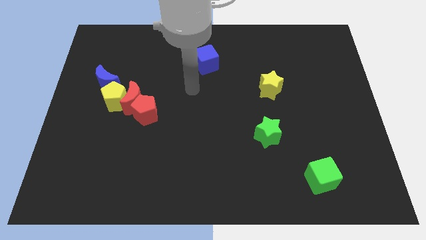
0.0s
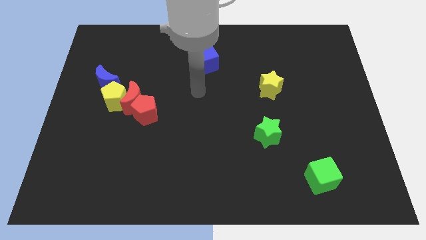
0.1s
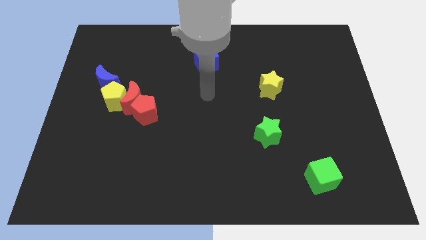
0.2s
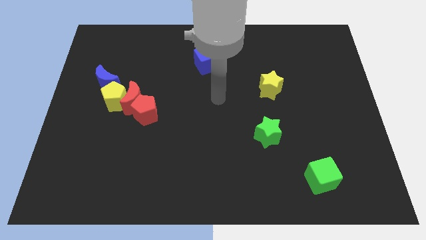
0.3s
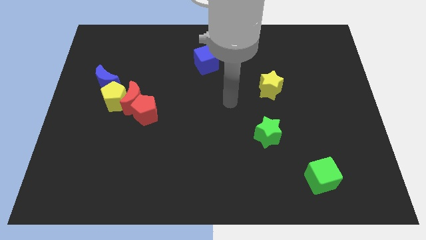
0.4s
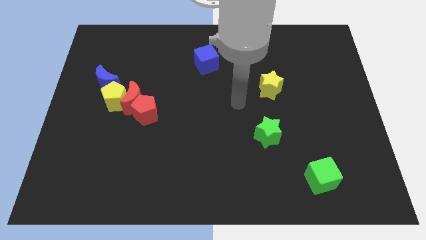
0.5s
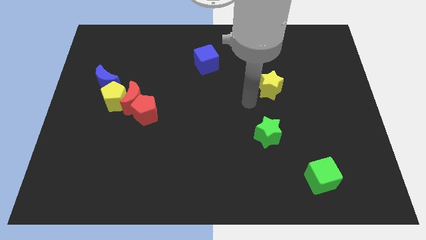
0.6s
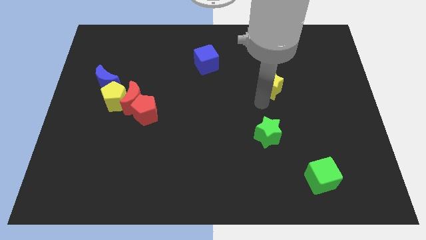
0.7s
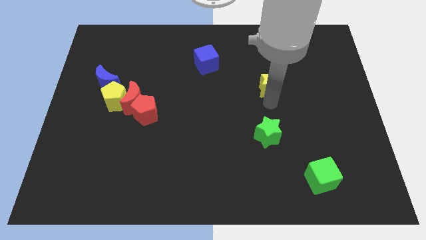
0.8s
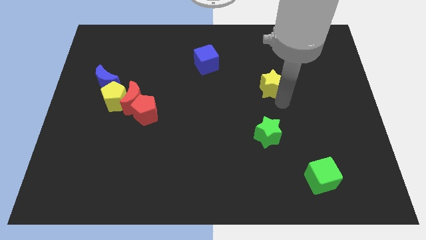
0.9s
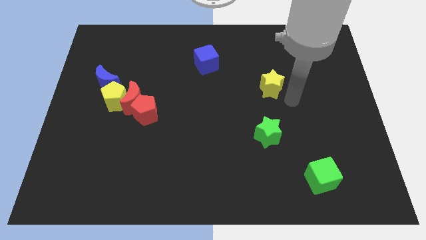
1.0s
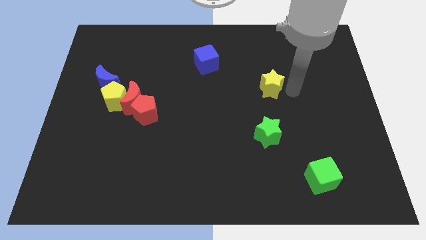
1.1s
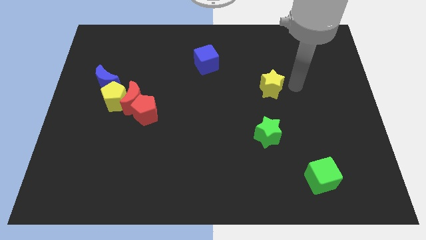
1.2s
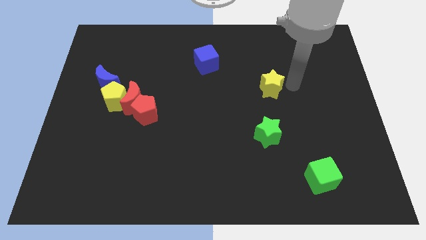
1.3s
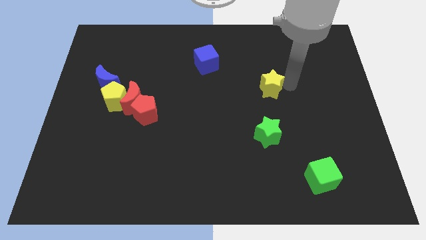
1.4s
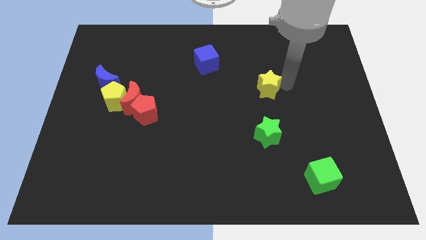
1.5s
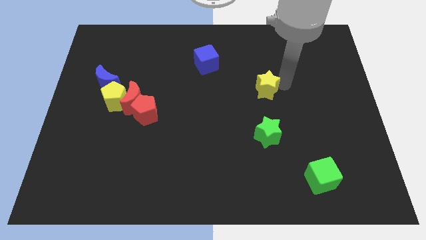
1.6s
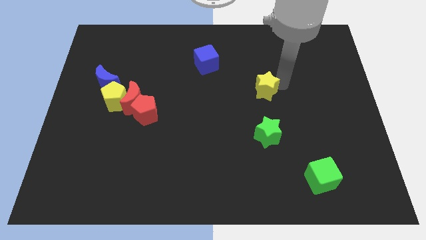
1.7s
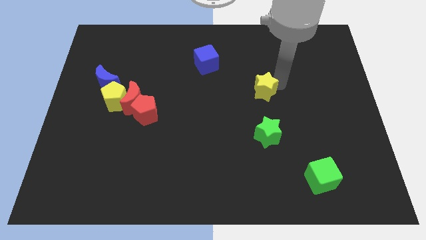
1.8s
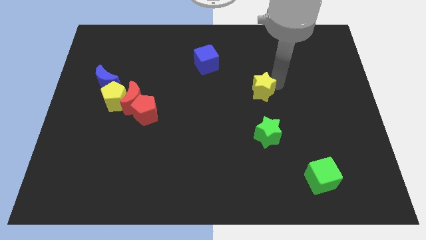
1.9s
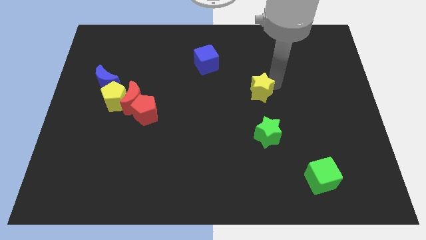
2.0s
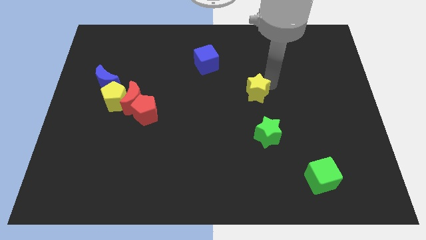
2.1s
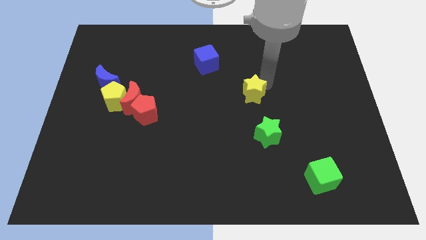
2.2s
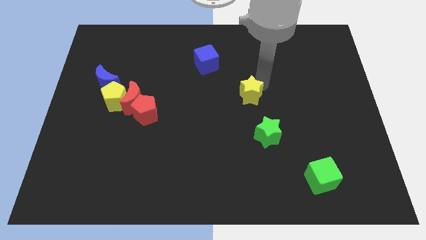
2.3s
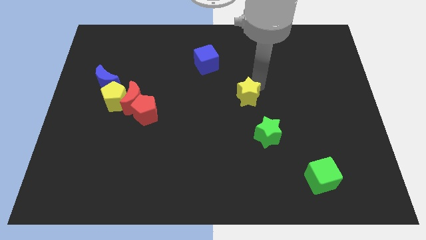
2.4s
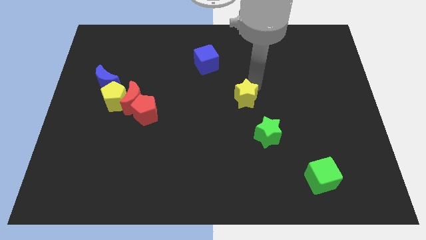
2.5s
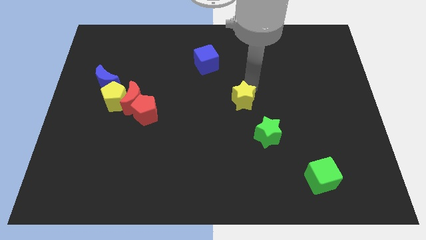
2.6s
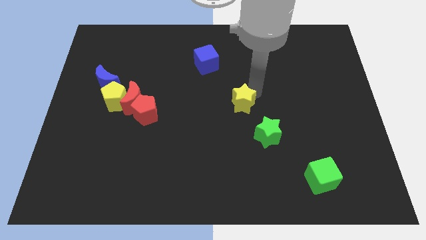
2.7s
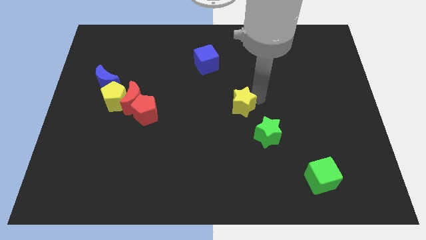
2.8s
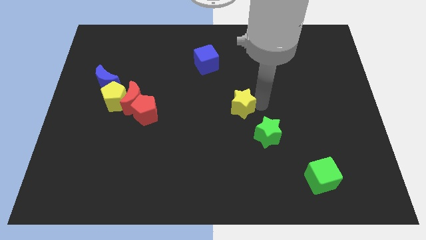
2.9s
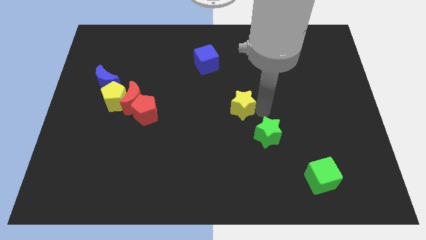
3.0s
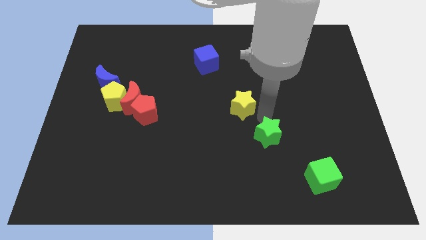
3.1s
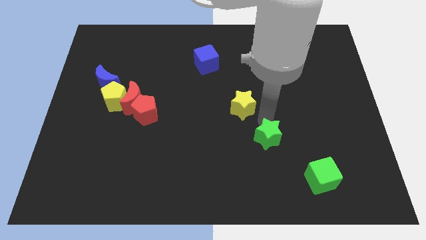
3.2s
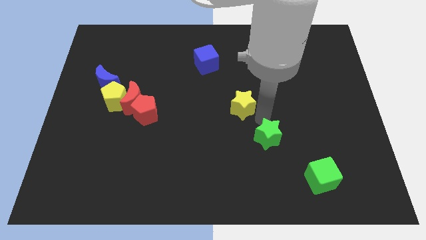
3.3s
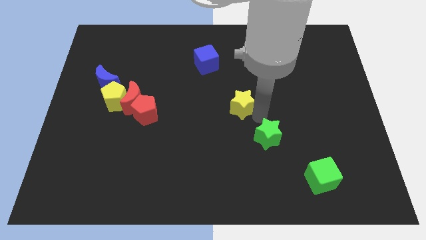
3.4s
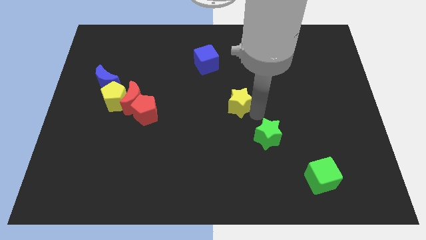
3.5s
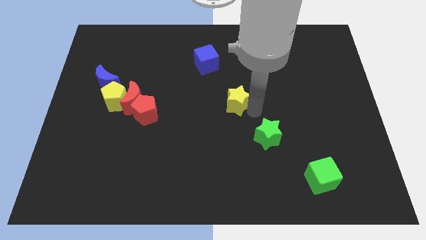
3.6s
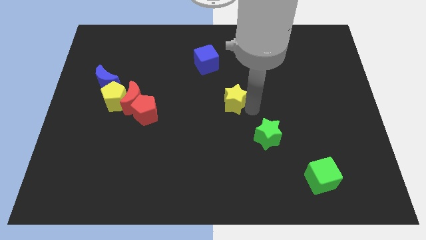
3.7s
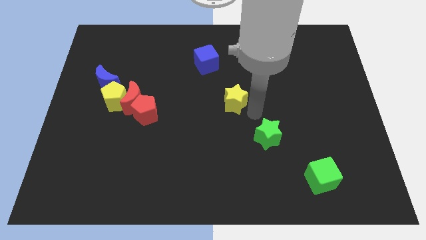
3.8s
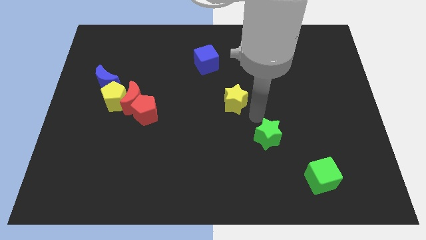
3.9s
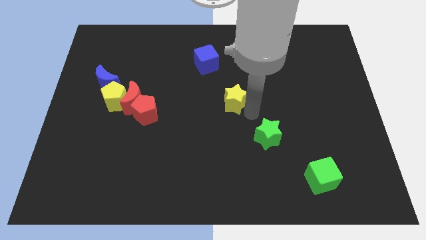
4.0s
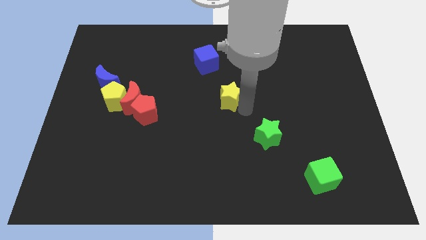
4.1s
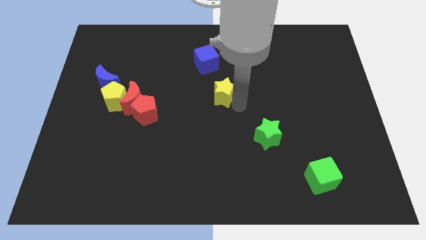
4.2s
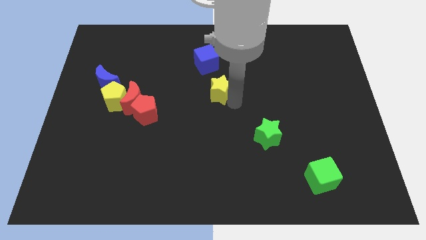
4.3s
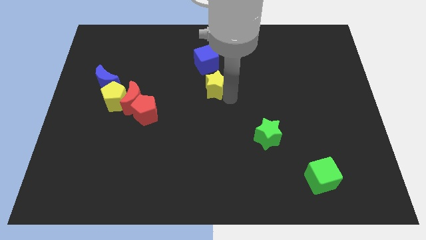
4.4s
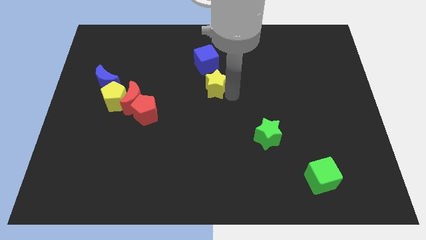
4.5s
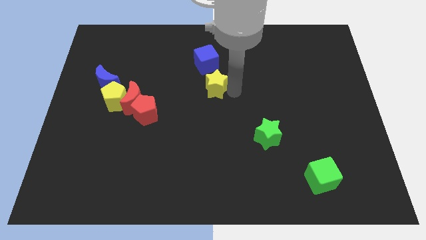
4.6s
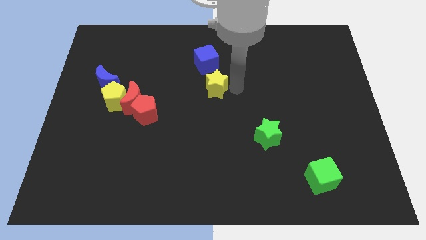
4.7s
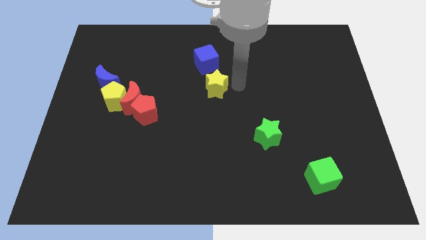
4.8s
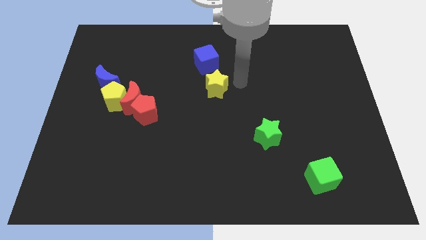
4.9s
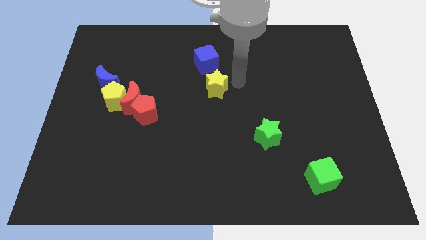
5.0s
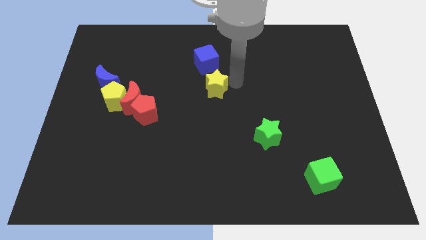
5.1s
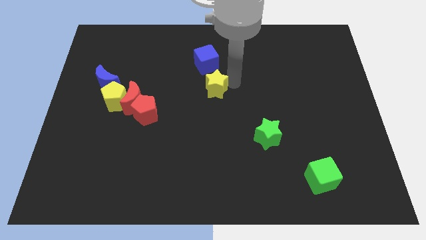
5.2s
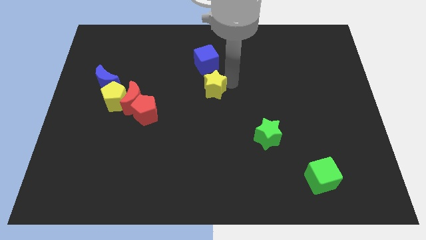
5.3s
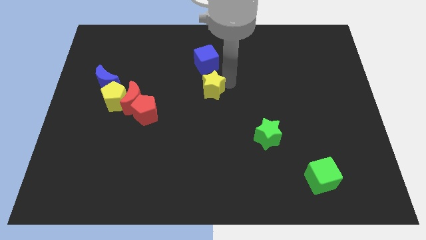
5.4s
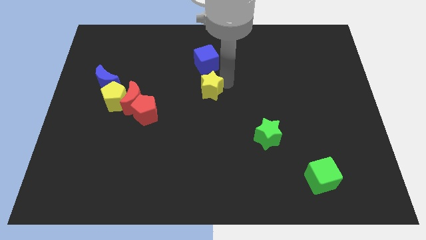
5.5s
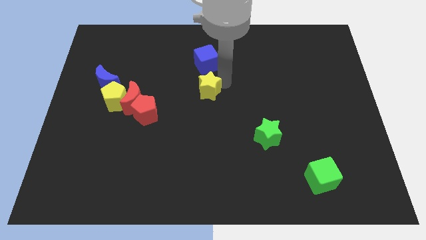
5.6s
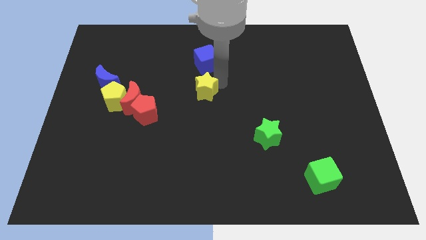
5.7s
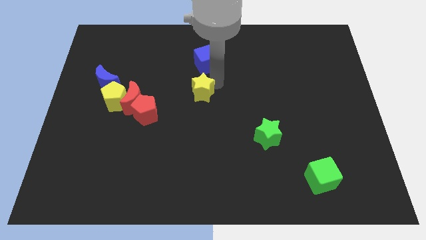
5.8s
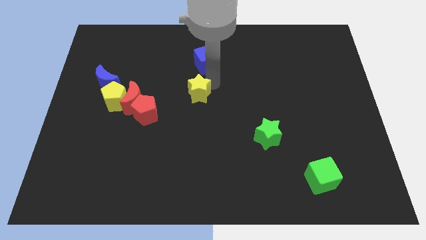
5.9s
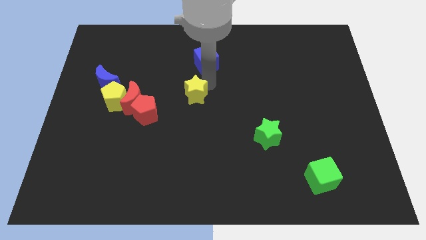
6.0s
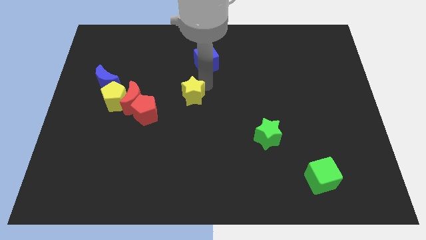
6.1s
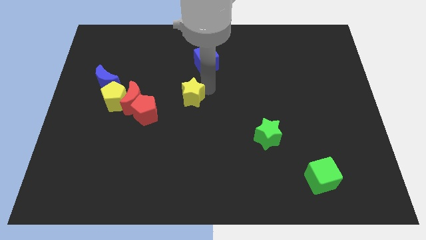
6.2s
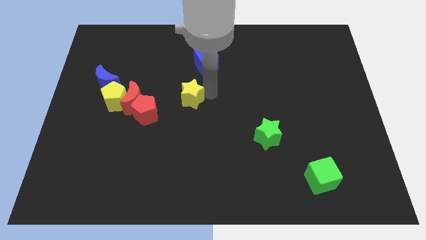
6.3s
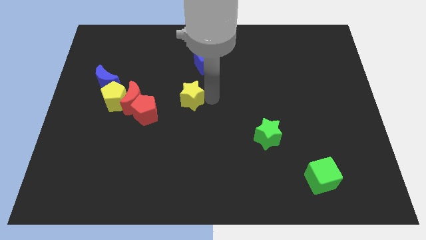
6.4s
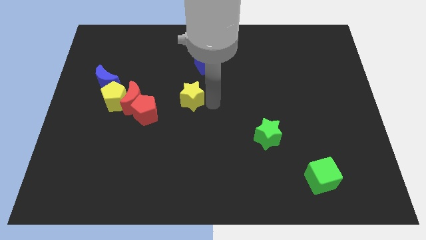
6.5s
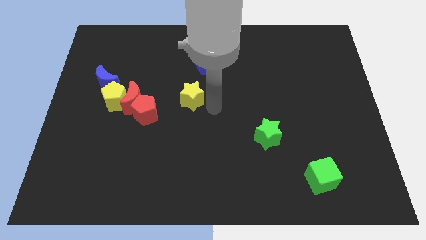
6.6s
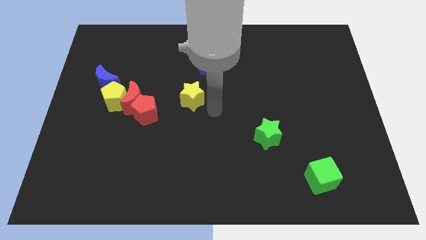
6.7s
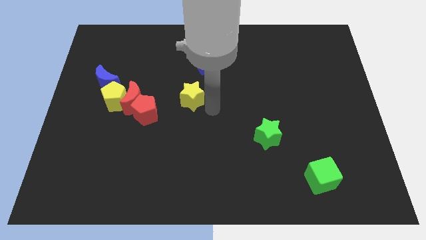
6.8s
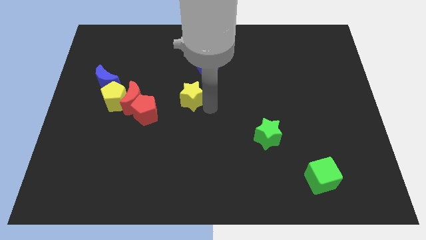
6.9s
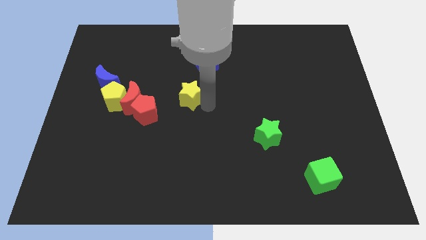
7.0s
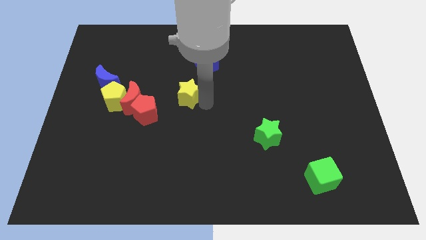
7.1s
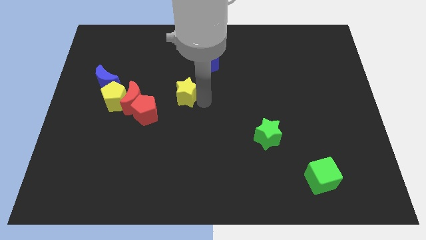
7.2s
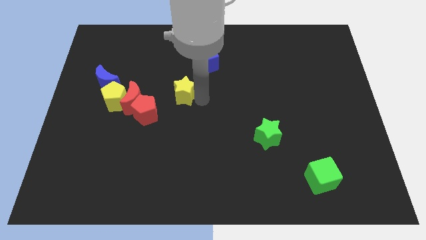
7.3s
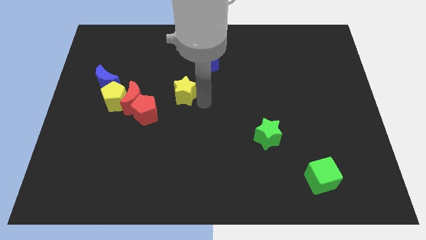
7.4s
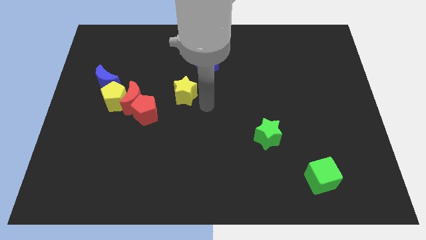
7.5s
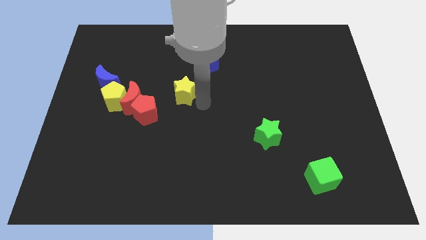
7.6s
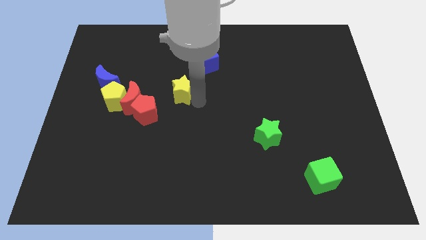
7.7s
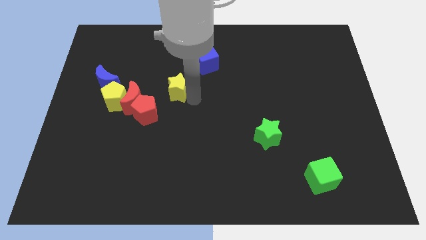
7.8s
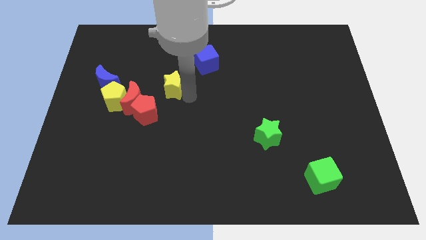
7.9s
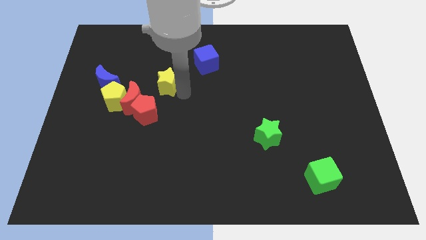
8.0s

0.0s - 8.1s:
slide the yellow star to the top of the red pentagon
